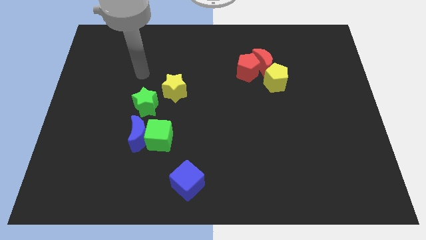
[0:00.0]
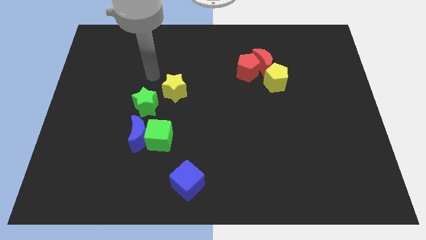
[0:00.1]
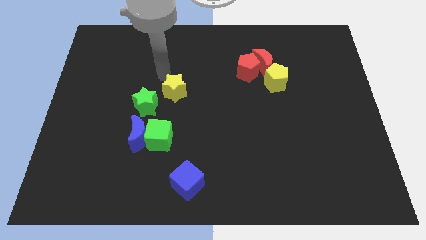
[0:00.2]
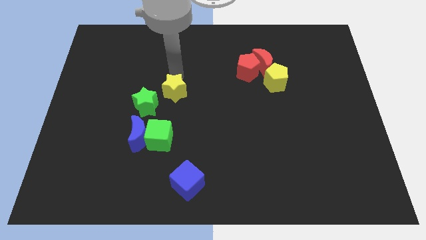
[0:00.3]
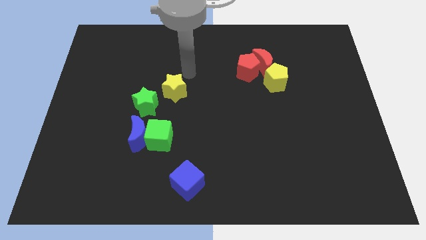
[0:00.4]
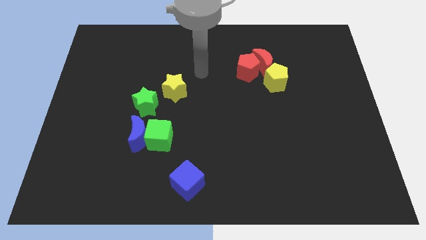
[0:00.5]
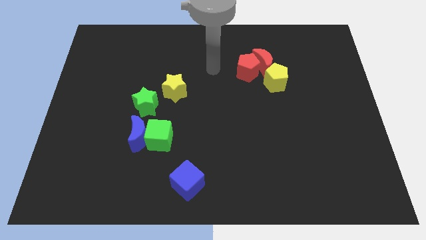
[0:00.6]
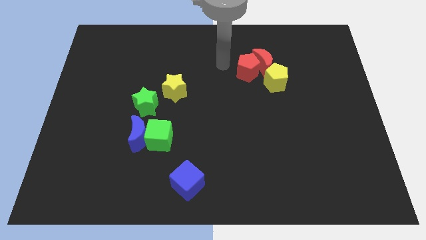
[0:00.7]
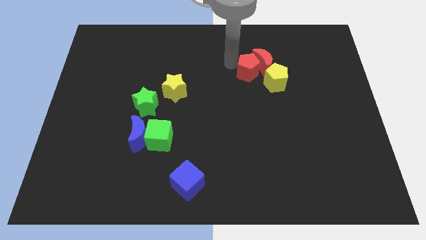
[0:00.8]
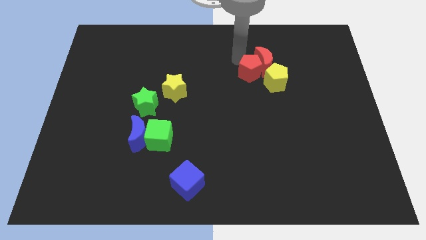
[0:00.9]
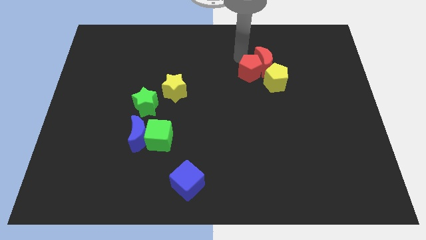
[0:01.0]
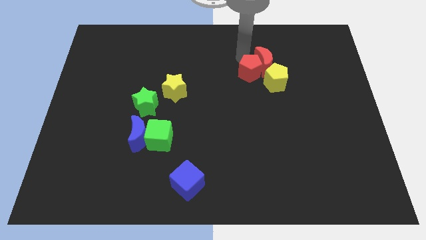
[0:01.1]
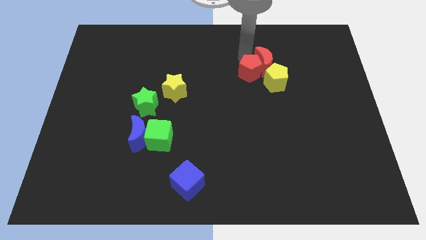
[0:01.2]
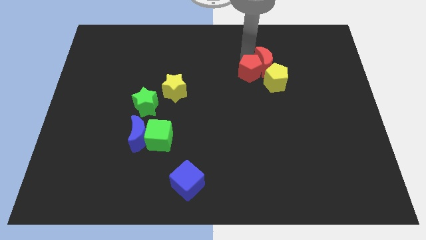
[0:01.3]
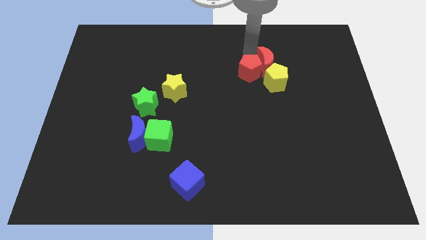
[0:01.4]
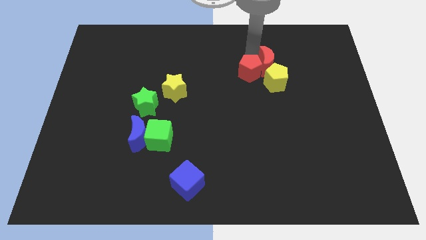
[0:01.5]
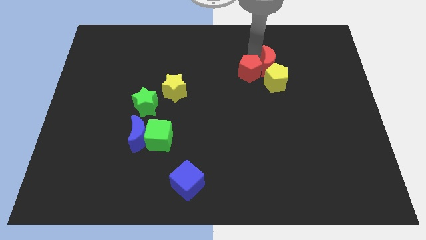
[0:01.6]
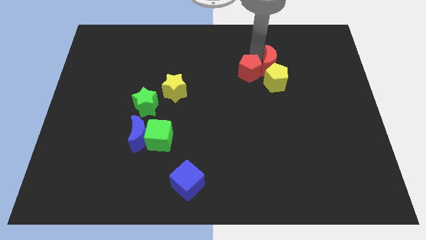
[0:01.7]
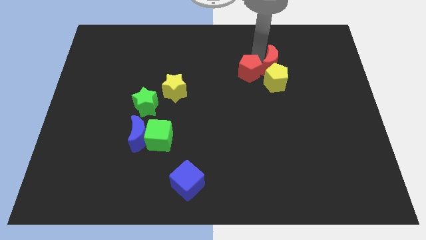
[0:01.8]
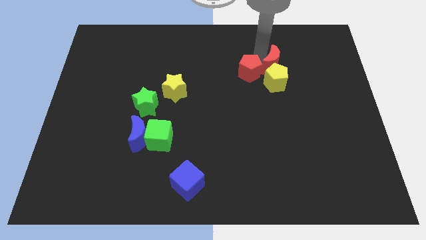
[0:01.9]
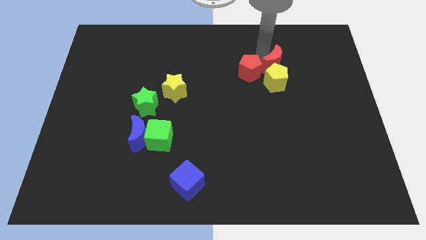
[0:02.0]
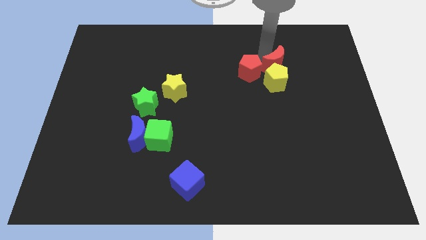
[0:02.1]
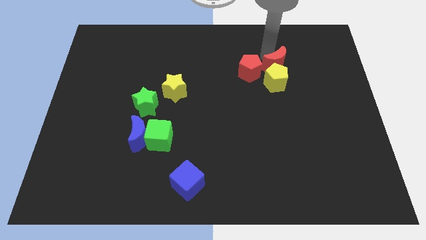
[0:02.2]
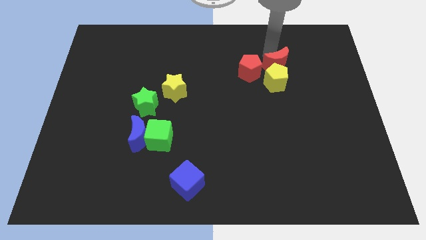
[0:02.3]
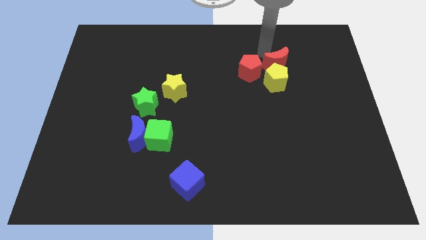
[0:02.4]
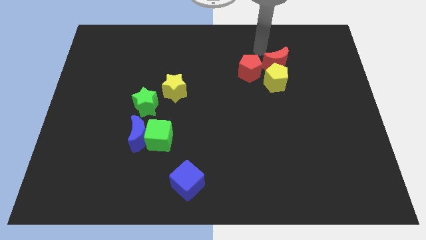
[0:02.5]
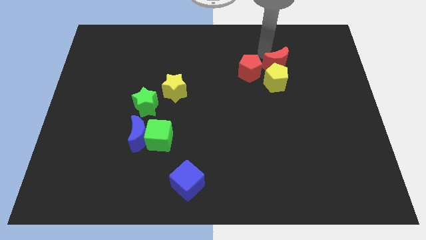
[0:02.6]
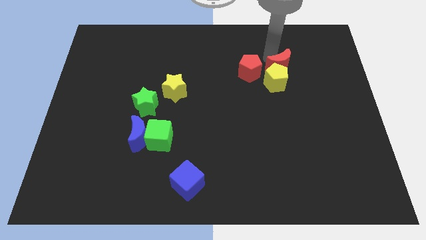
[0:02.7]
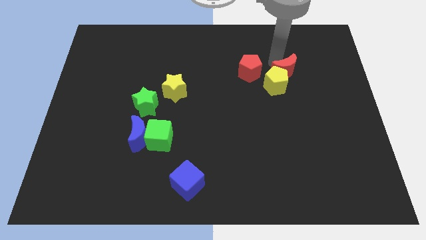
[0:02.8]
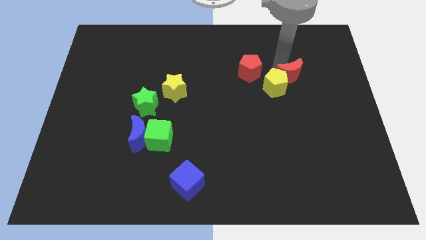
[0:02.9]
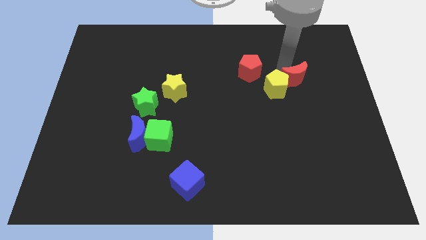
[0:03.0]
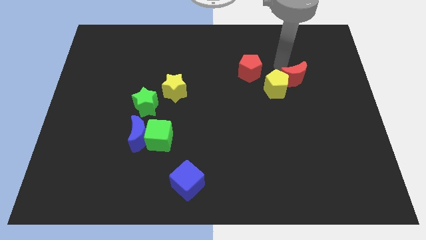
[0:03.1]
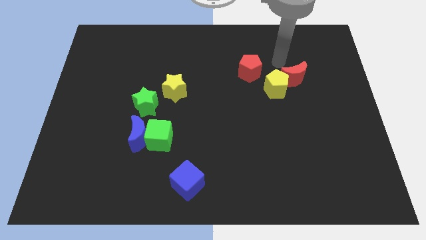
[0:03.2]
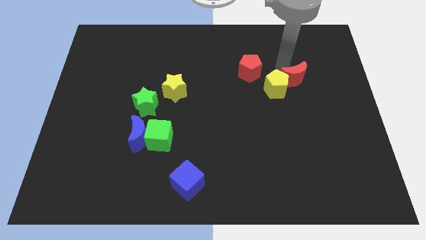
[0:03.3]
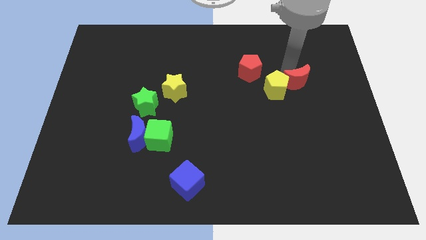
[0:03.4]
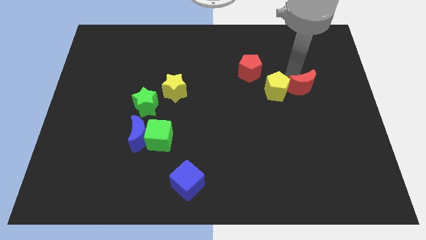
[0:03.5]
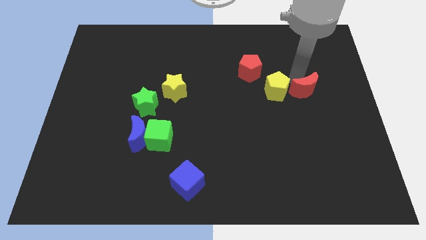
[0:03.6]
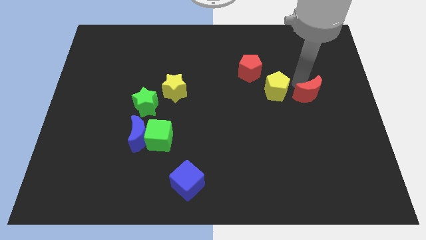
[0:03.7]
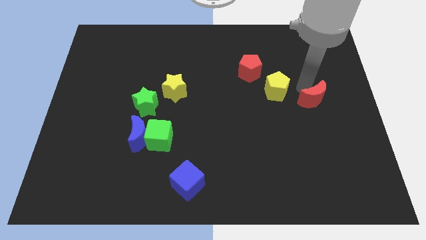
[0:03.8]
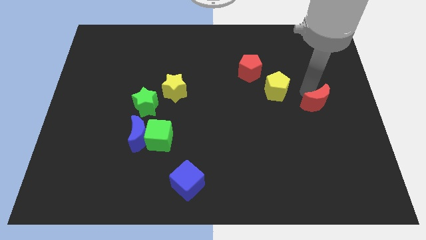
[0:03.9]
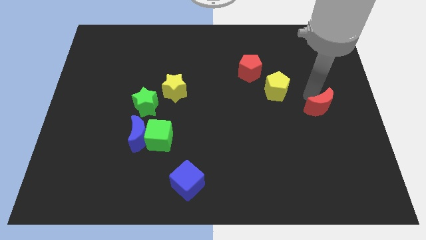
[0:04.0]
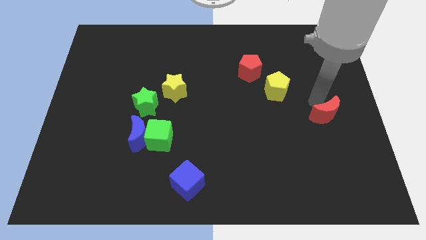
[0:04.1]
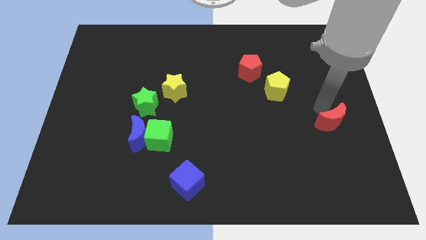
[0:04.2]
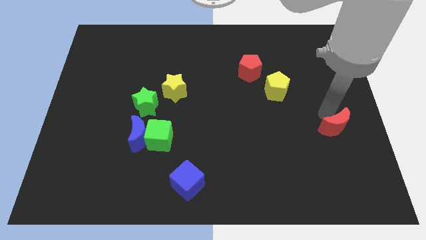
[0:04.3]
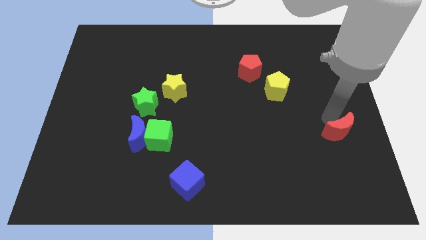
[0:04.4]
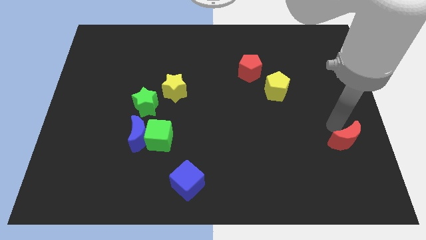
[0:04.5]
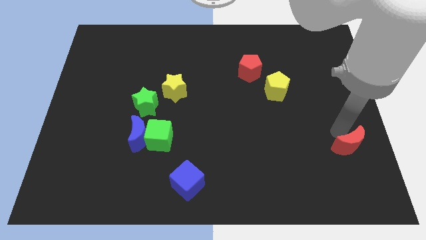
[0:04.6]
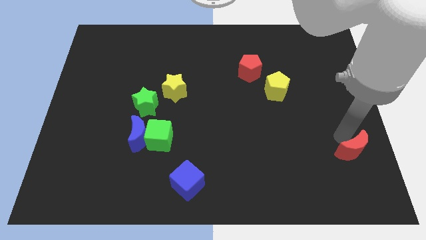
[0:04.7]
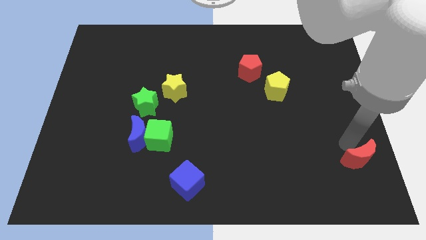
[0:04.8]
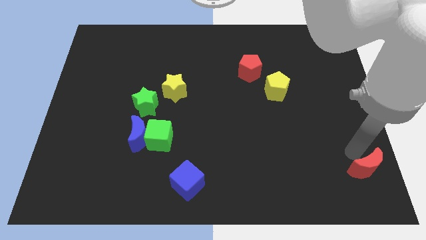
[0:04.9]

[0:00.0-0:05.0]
put the red moon to the bottom right corner

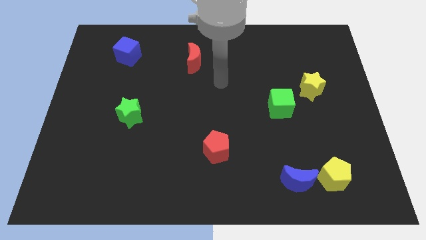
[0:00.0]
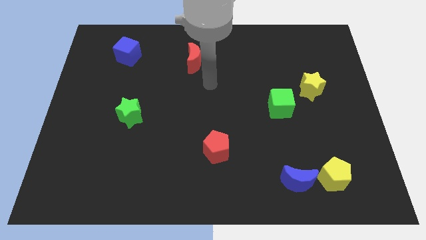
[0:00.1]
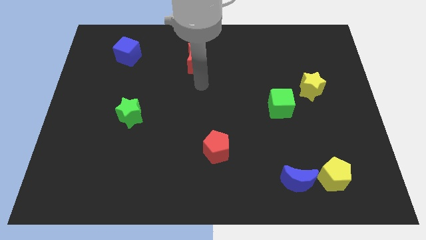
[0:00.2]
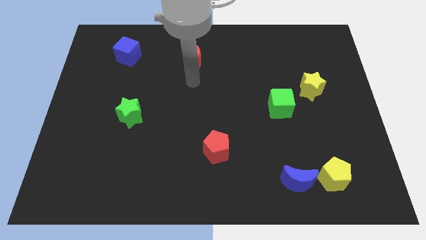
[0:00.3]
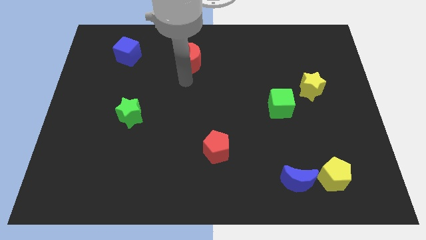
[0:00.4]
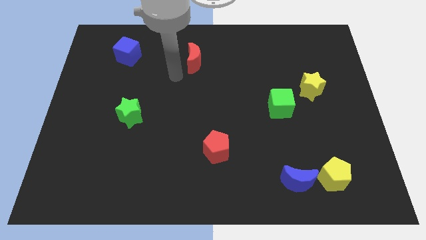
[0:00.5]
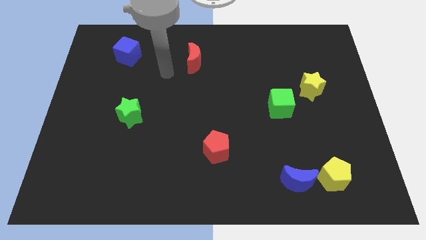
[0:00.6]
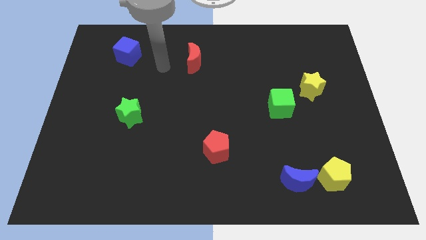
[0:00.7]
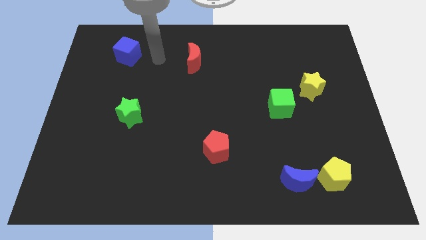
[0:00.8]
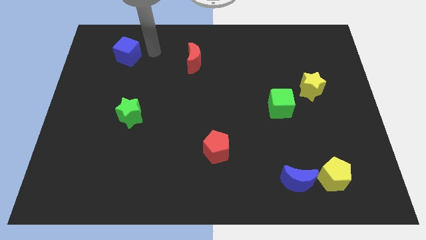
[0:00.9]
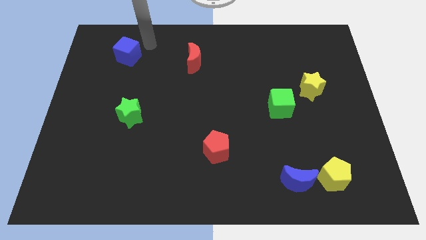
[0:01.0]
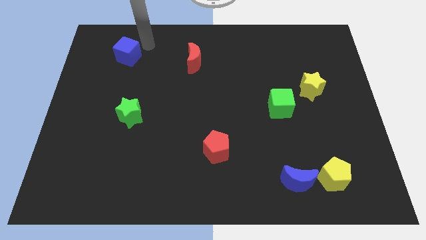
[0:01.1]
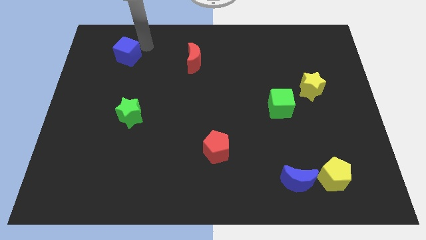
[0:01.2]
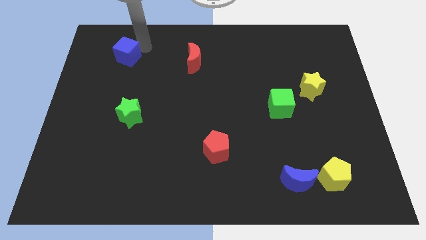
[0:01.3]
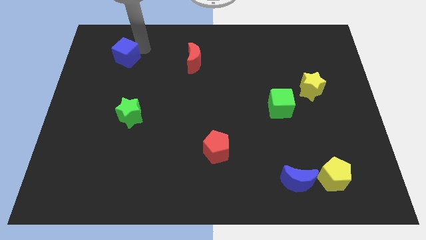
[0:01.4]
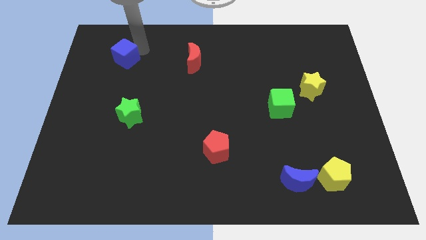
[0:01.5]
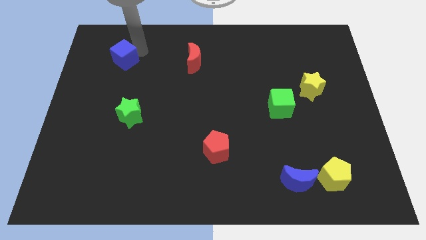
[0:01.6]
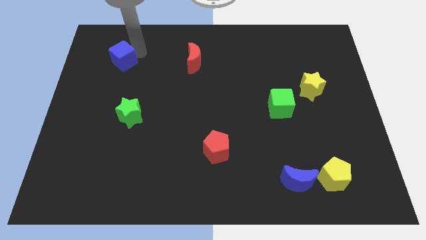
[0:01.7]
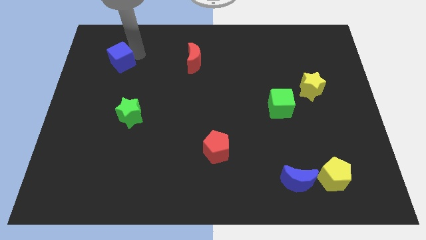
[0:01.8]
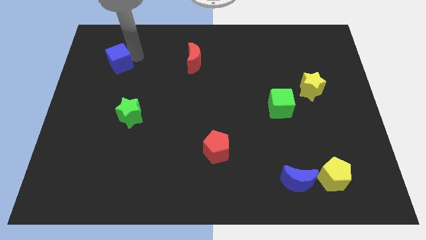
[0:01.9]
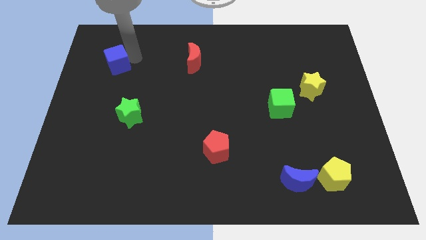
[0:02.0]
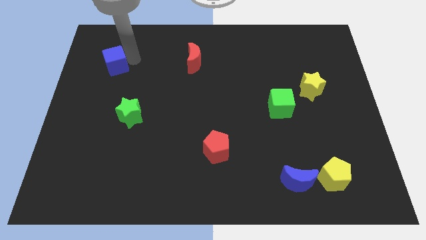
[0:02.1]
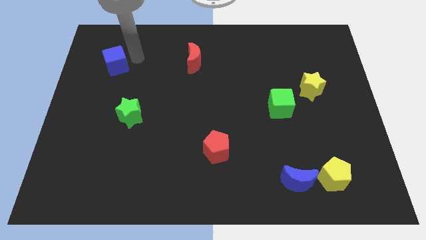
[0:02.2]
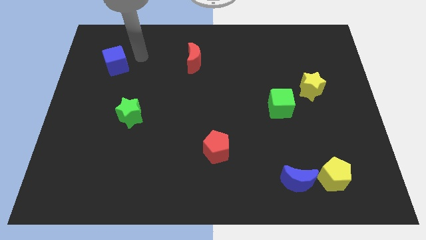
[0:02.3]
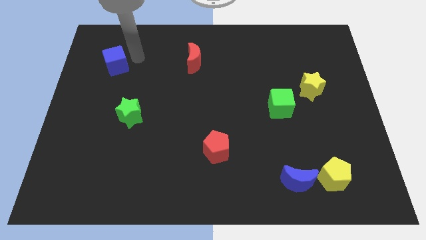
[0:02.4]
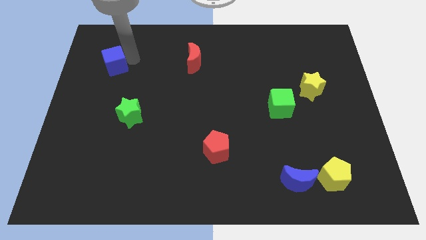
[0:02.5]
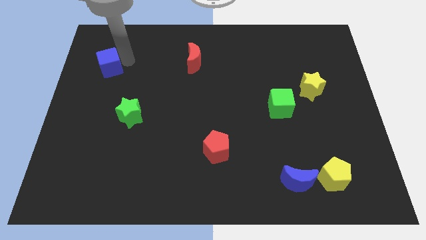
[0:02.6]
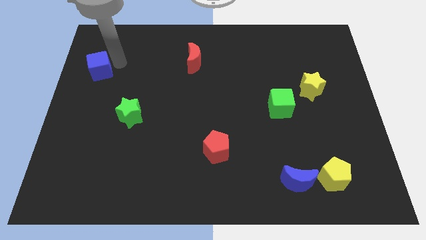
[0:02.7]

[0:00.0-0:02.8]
put the blue cube to the left side
